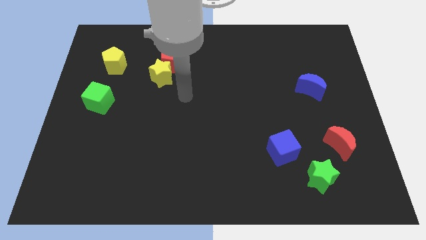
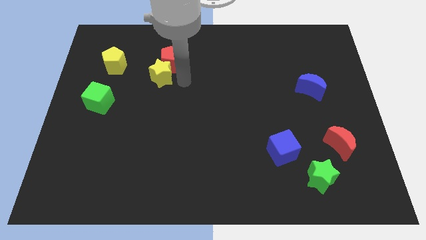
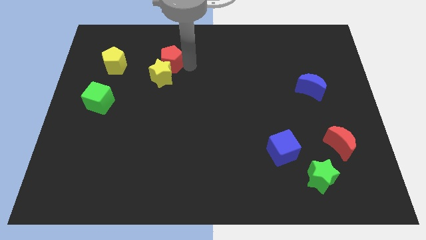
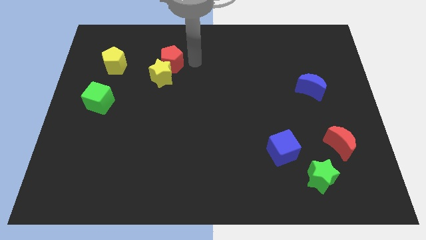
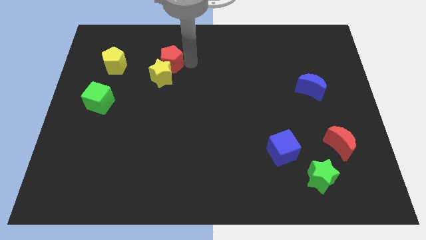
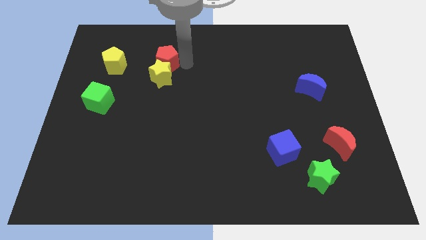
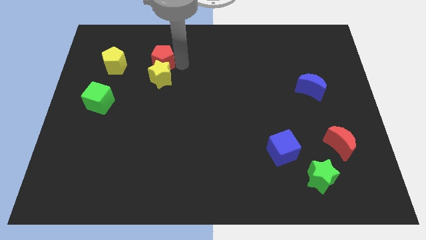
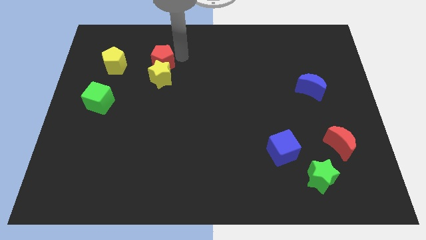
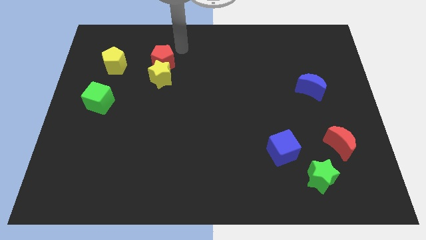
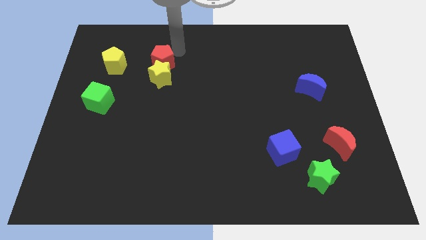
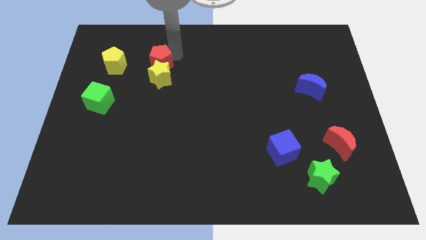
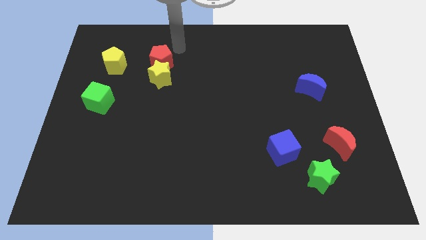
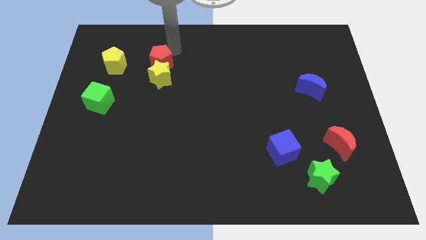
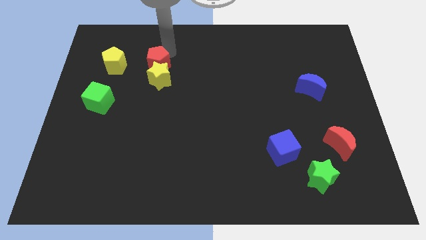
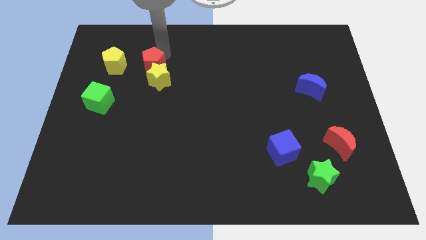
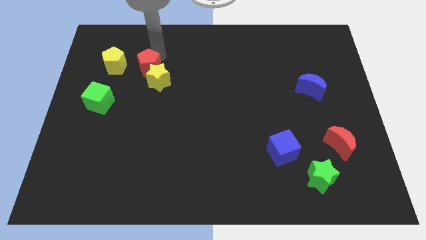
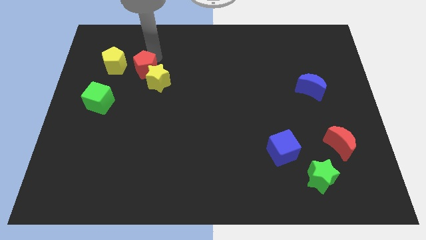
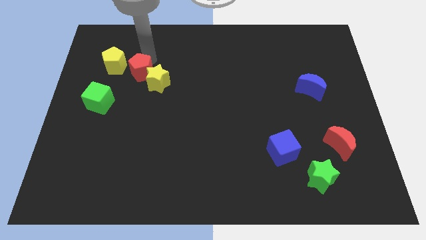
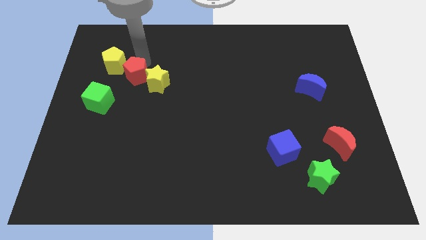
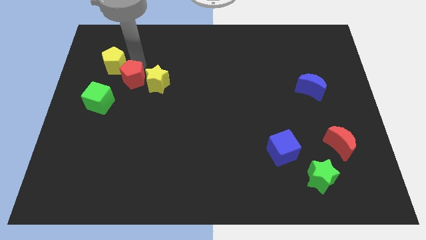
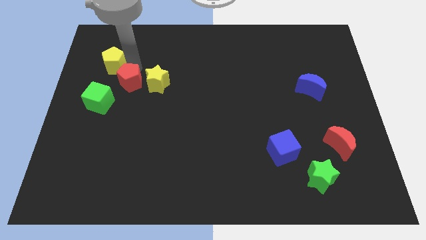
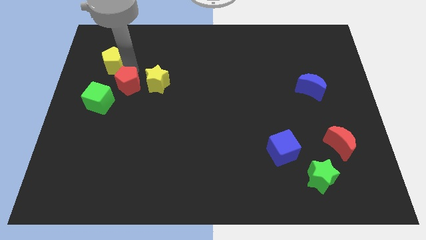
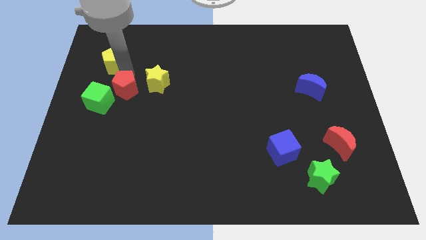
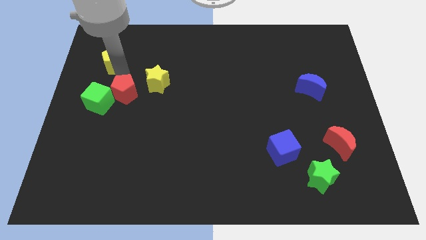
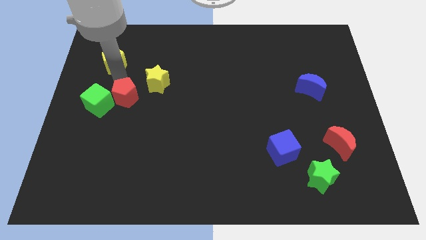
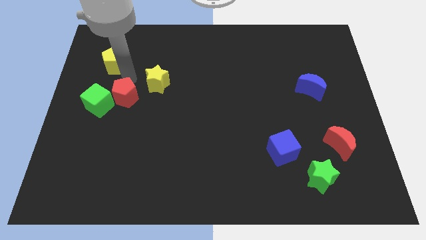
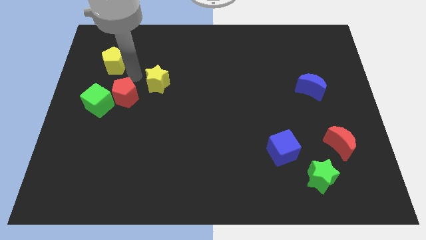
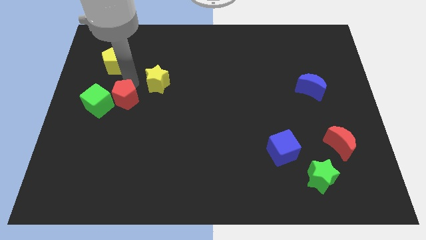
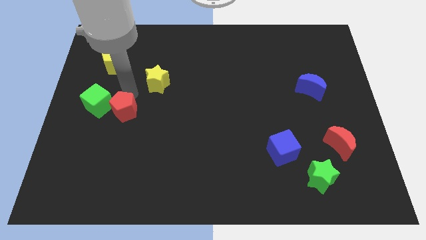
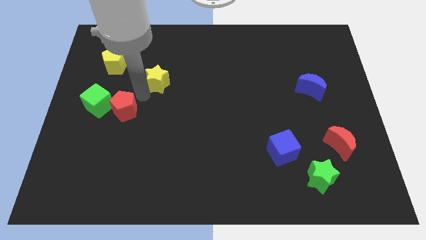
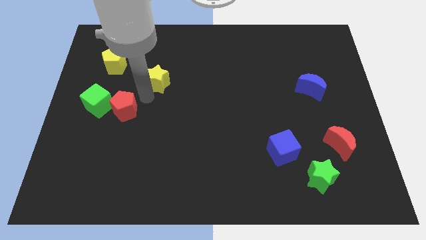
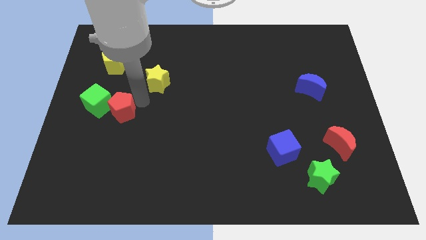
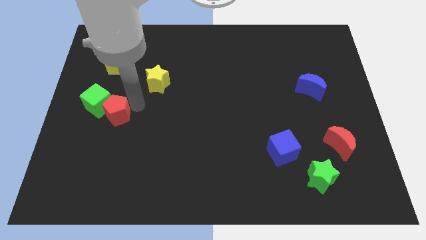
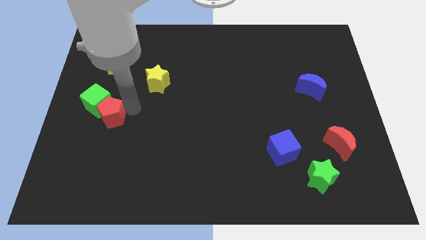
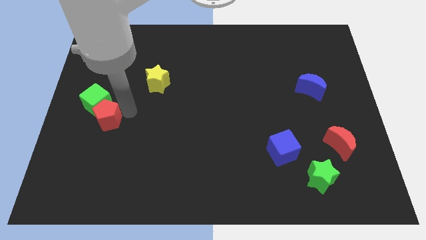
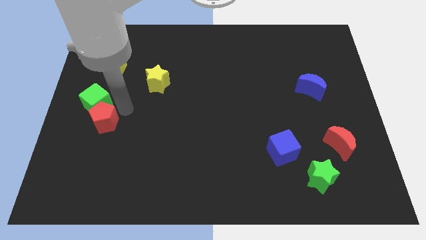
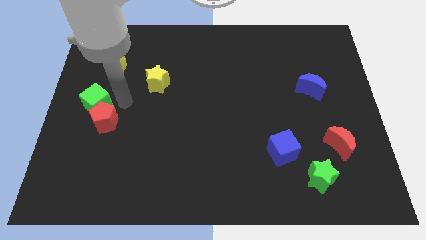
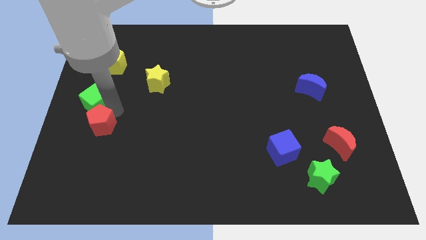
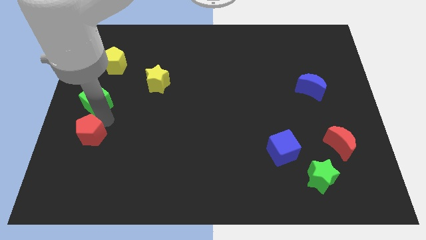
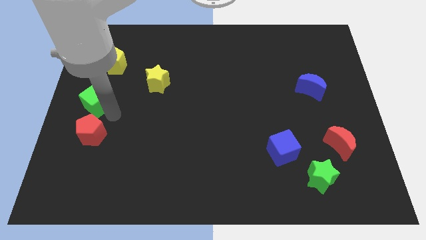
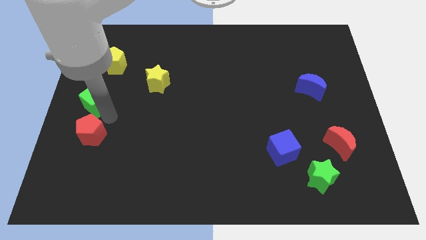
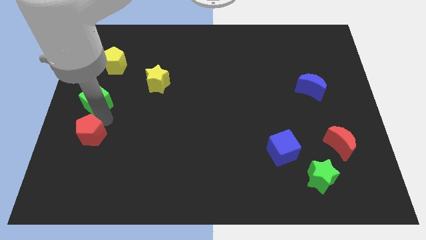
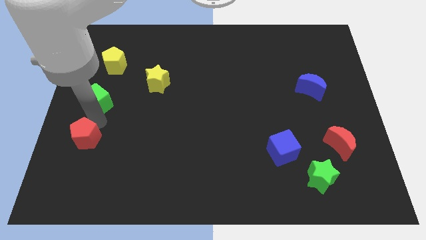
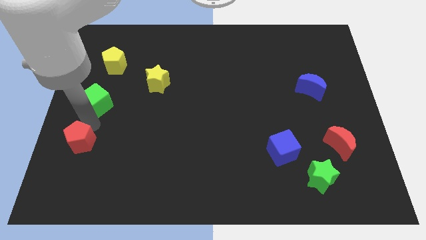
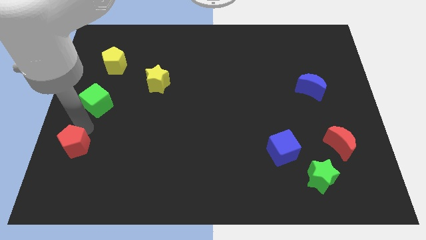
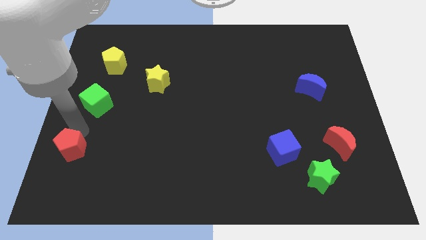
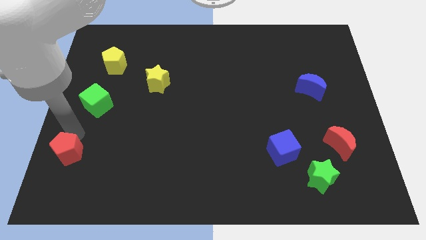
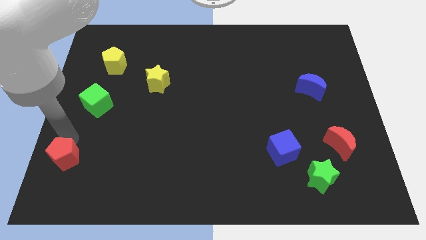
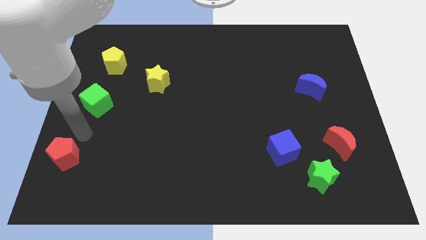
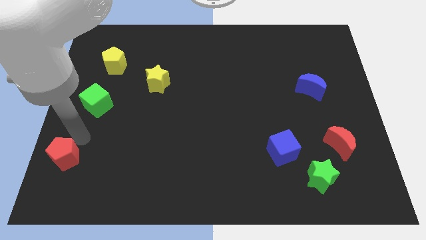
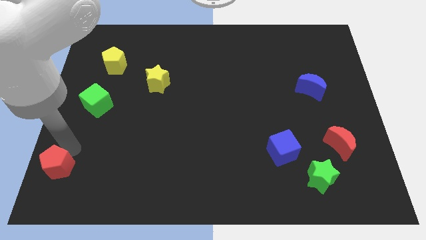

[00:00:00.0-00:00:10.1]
put the red pentagon to the lower left corner
